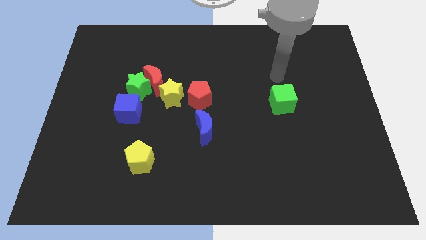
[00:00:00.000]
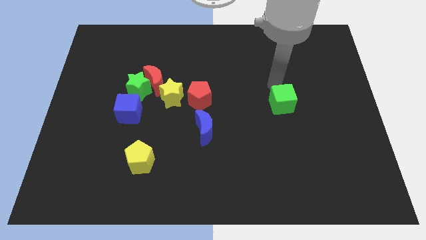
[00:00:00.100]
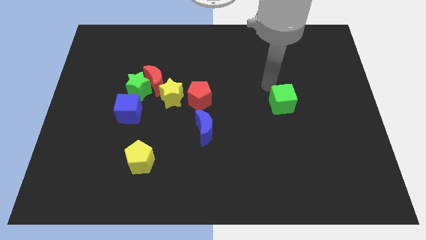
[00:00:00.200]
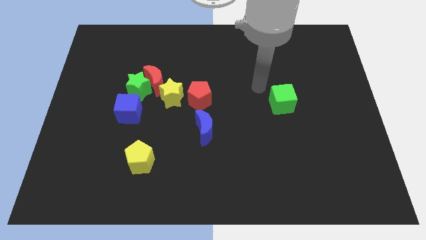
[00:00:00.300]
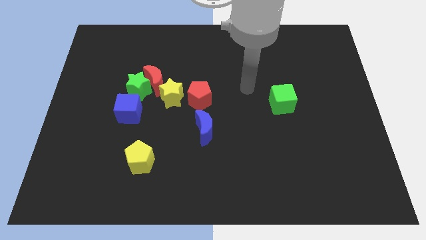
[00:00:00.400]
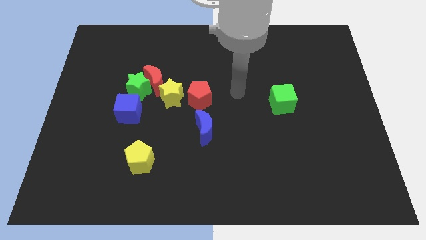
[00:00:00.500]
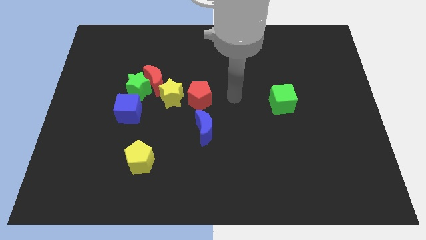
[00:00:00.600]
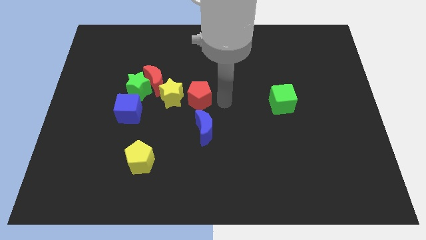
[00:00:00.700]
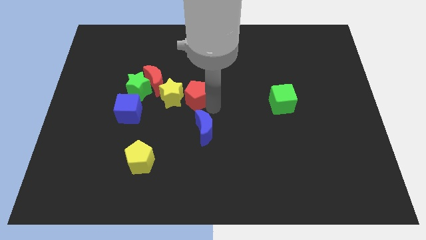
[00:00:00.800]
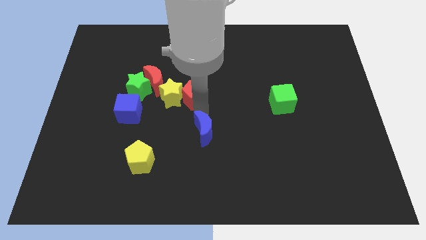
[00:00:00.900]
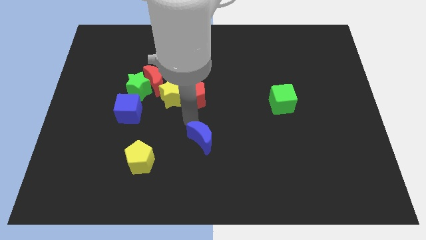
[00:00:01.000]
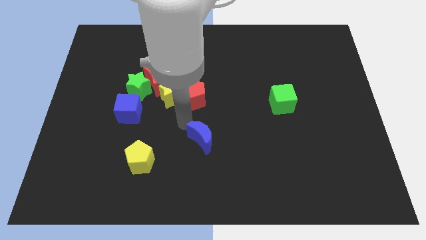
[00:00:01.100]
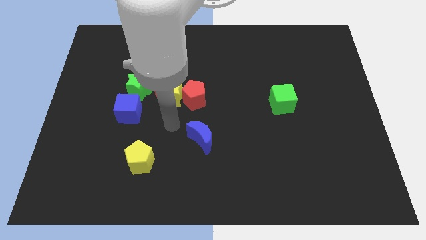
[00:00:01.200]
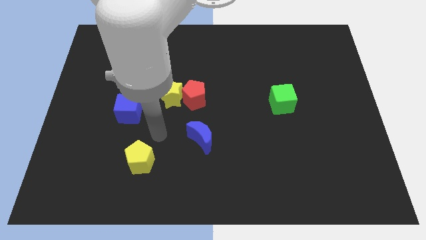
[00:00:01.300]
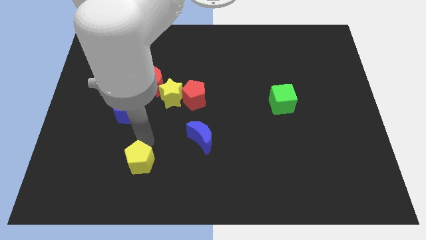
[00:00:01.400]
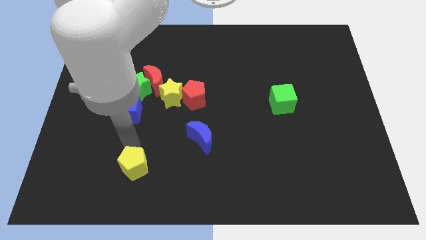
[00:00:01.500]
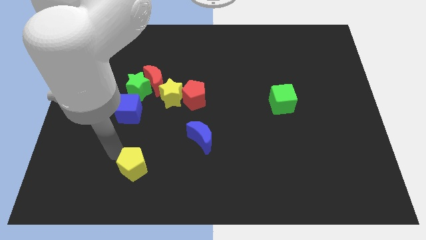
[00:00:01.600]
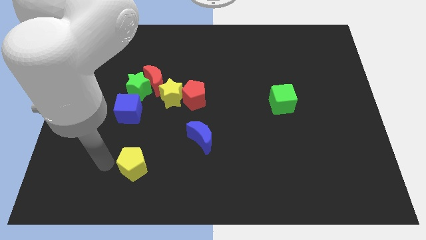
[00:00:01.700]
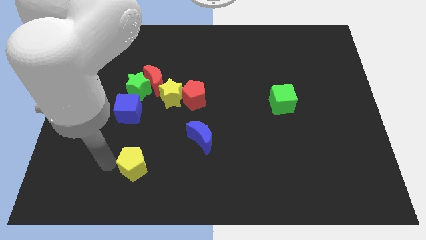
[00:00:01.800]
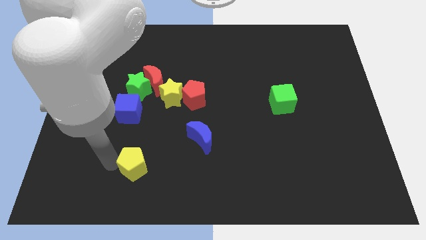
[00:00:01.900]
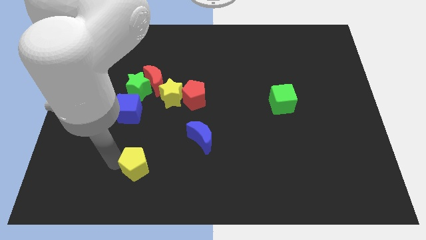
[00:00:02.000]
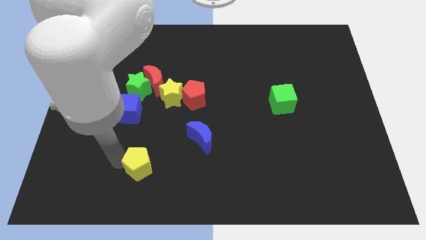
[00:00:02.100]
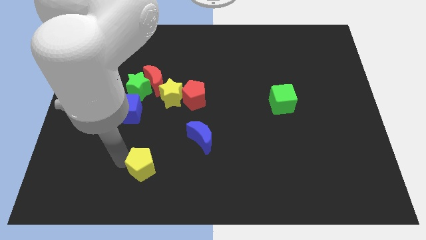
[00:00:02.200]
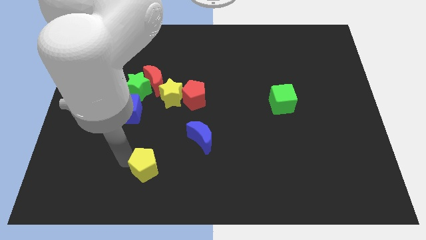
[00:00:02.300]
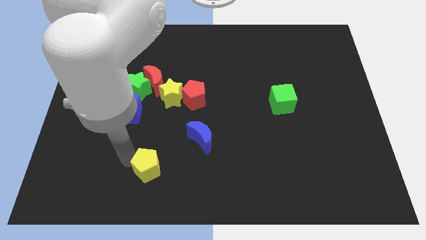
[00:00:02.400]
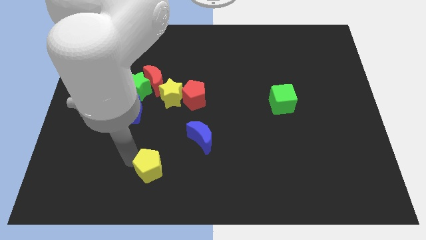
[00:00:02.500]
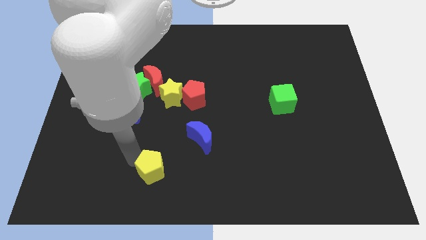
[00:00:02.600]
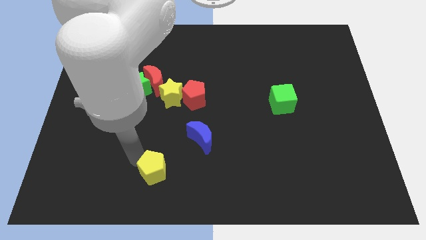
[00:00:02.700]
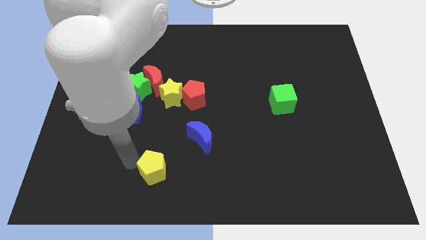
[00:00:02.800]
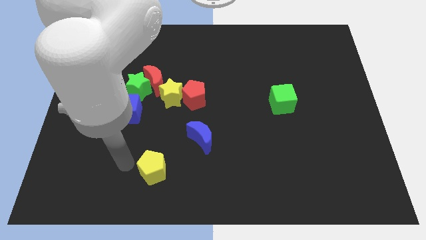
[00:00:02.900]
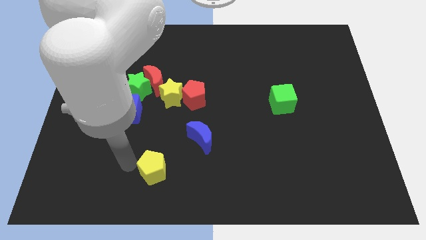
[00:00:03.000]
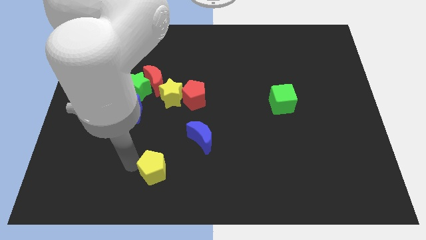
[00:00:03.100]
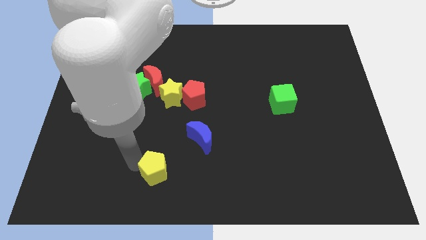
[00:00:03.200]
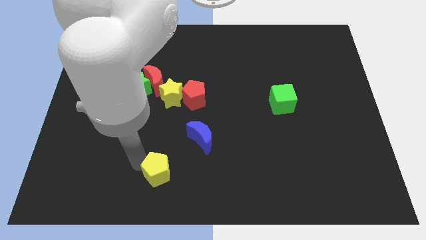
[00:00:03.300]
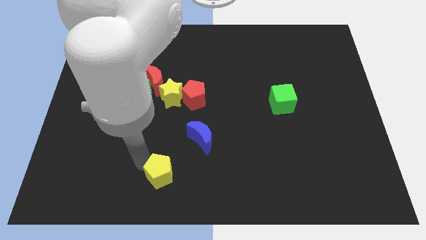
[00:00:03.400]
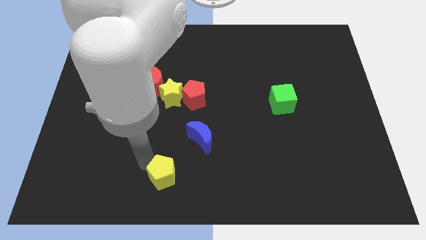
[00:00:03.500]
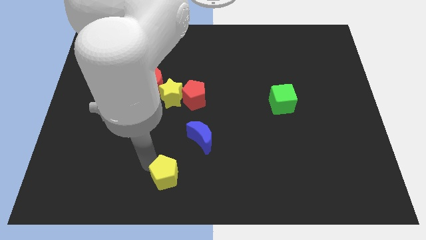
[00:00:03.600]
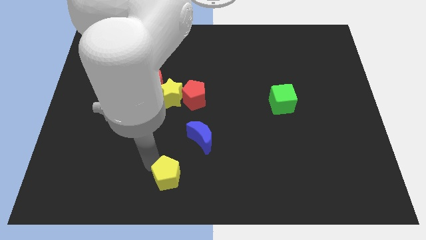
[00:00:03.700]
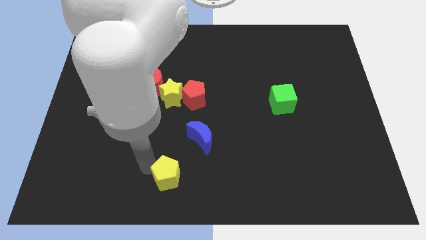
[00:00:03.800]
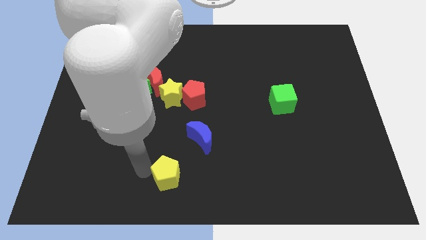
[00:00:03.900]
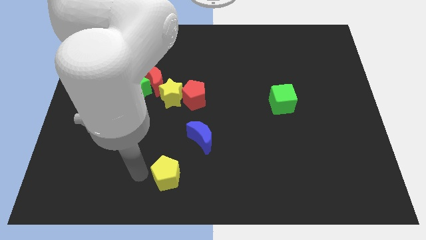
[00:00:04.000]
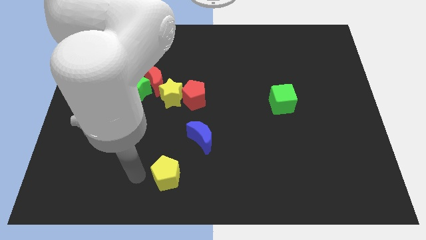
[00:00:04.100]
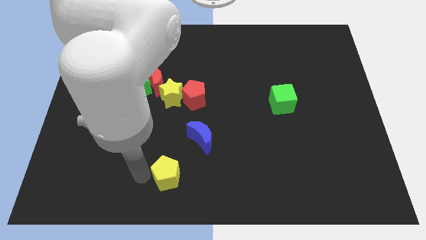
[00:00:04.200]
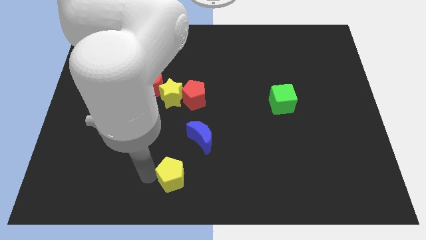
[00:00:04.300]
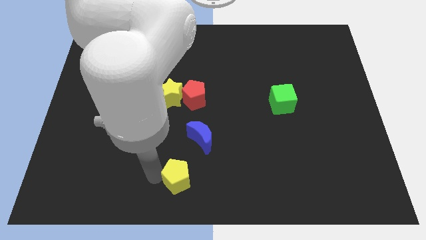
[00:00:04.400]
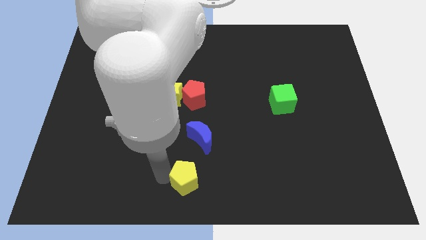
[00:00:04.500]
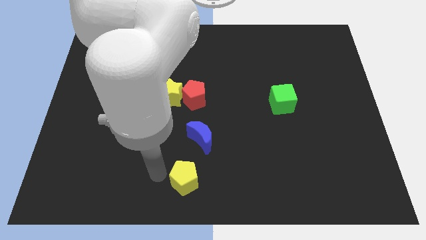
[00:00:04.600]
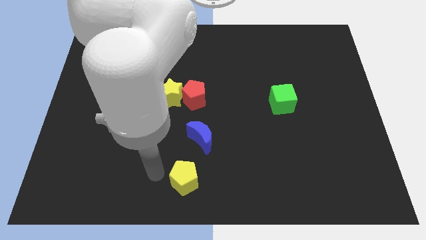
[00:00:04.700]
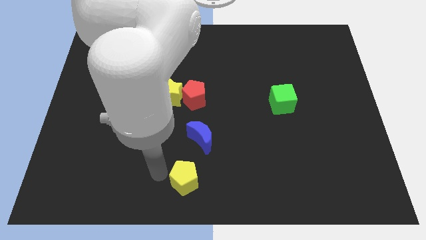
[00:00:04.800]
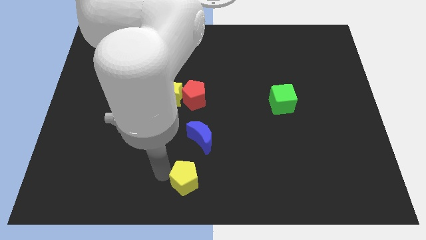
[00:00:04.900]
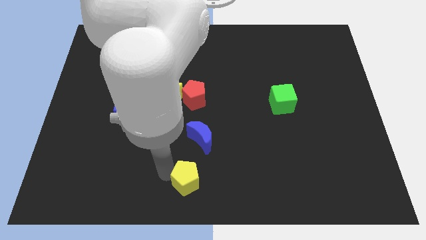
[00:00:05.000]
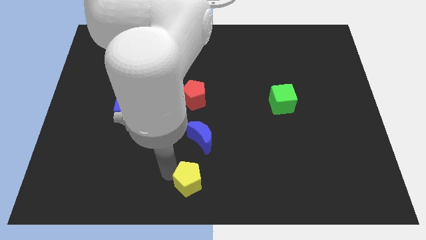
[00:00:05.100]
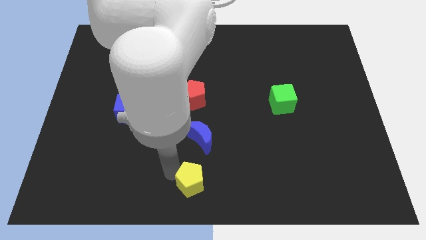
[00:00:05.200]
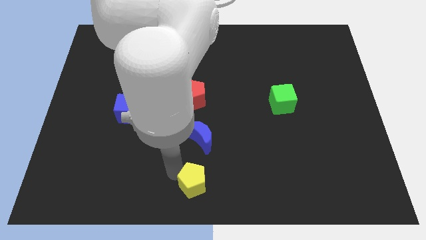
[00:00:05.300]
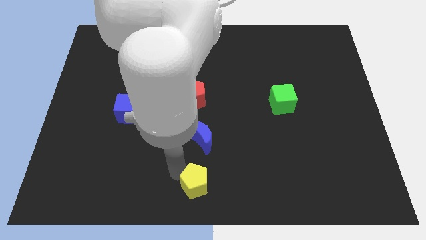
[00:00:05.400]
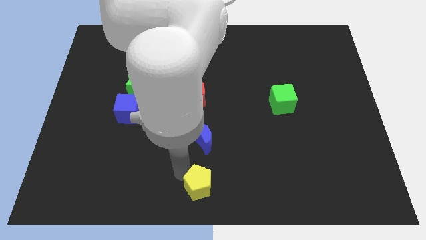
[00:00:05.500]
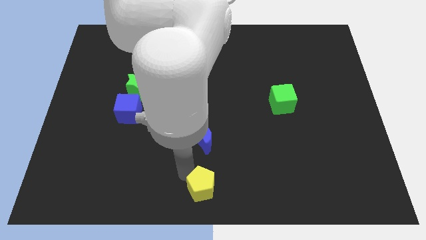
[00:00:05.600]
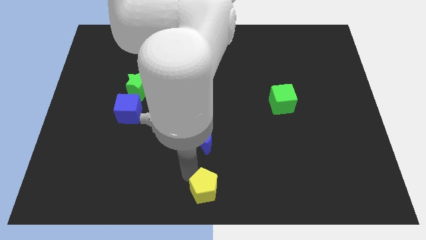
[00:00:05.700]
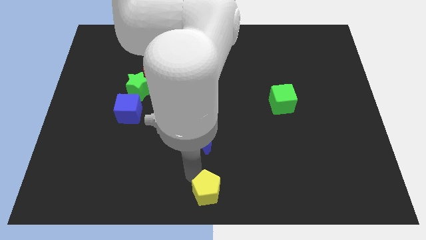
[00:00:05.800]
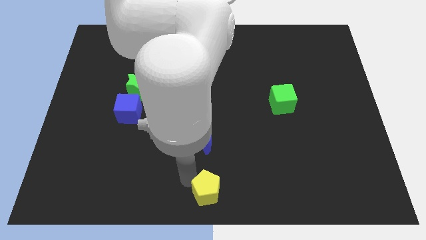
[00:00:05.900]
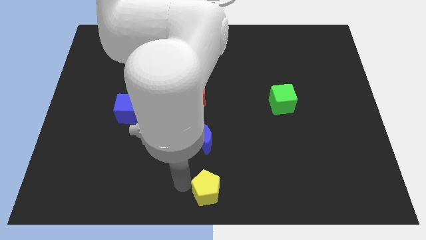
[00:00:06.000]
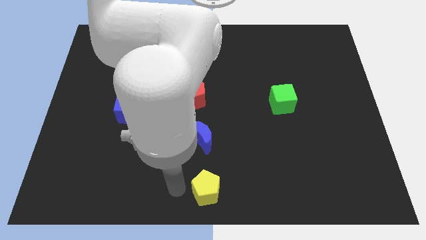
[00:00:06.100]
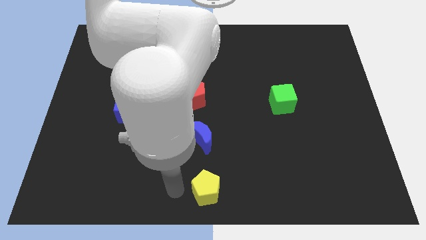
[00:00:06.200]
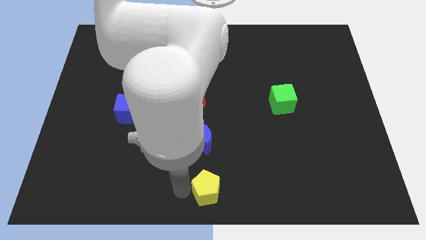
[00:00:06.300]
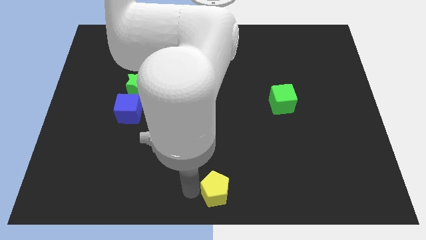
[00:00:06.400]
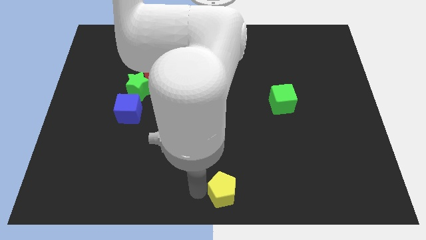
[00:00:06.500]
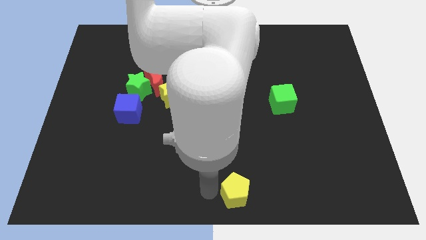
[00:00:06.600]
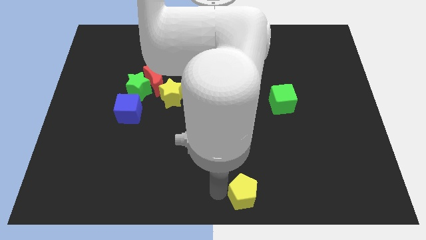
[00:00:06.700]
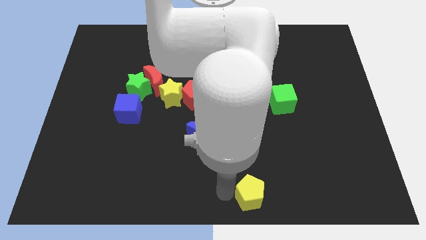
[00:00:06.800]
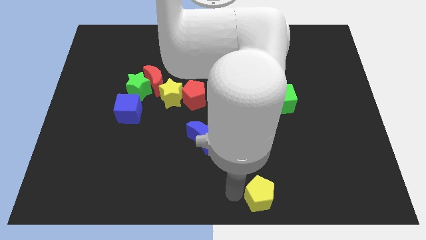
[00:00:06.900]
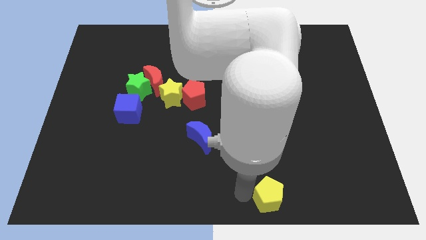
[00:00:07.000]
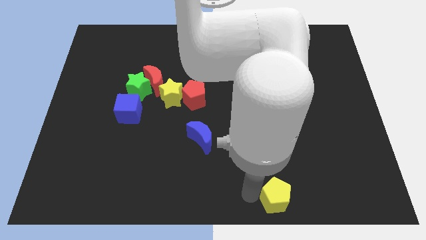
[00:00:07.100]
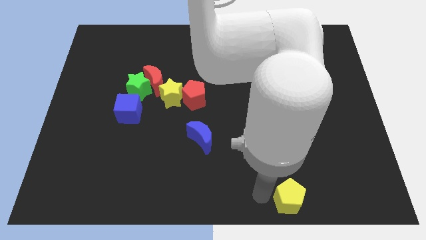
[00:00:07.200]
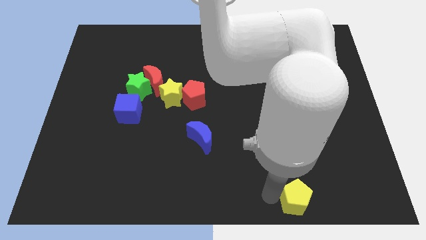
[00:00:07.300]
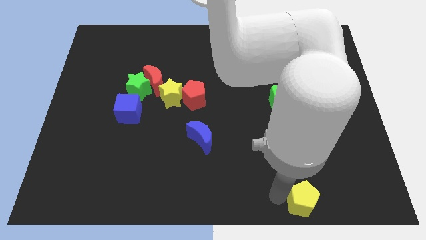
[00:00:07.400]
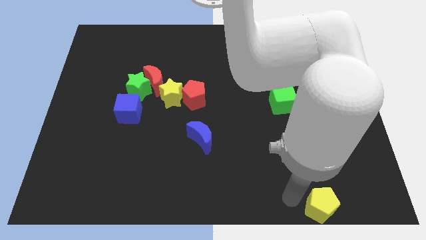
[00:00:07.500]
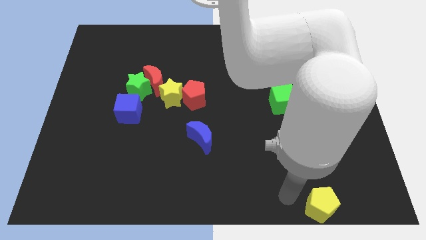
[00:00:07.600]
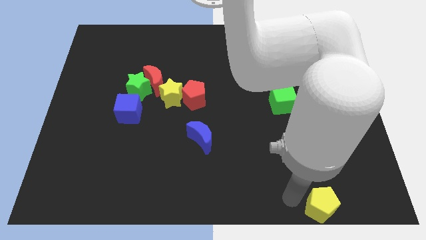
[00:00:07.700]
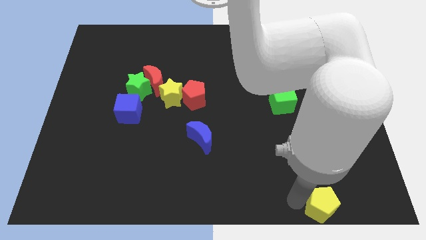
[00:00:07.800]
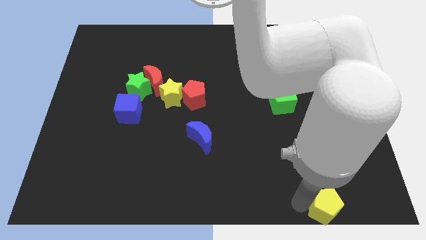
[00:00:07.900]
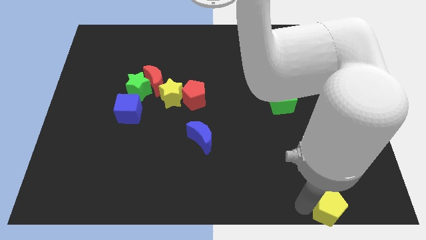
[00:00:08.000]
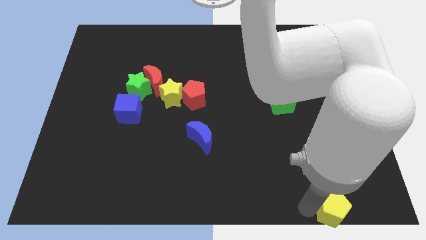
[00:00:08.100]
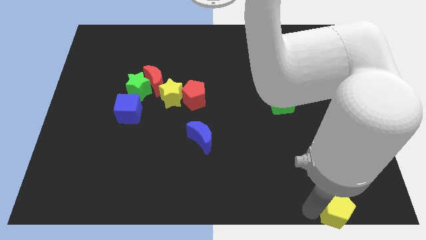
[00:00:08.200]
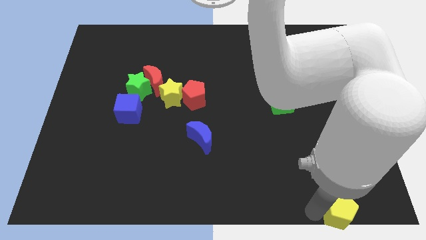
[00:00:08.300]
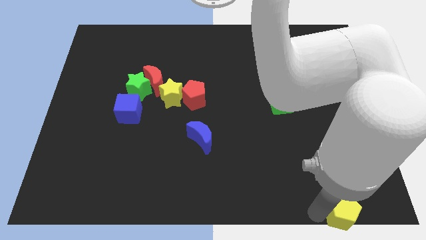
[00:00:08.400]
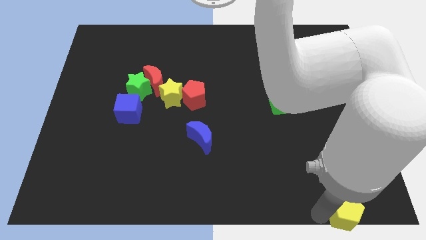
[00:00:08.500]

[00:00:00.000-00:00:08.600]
slide the yellow pentagon to the bottom right
